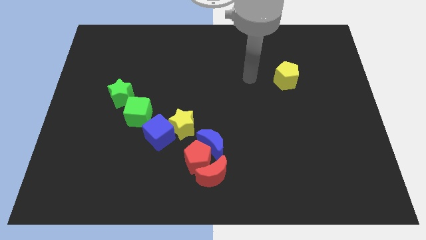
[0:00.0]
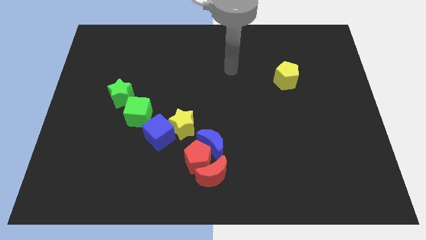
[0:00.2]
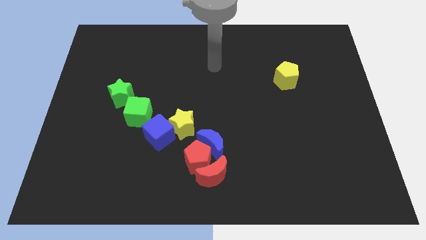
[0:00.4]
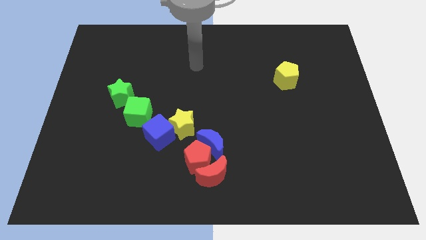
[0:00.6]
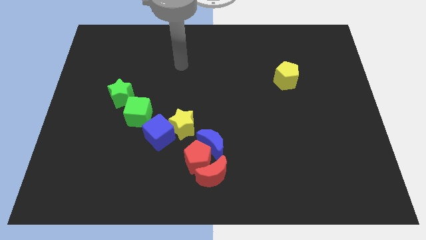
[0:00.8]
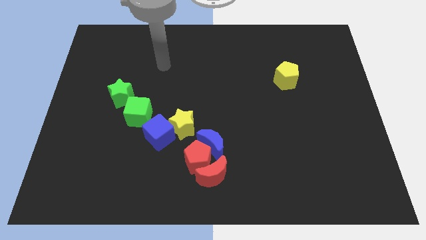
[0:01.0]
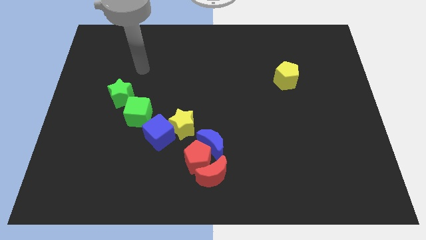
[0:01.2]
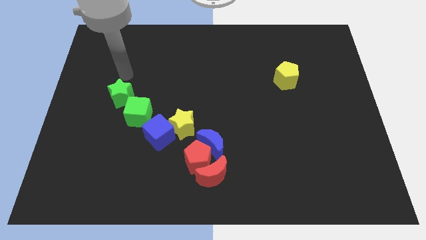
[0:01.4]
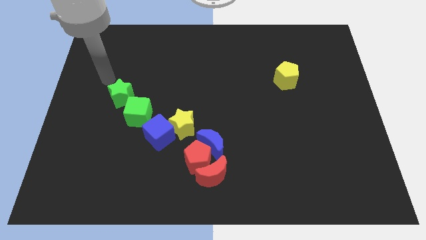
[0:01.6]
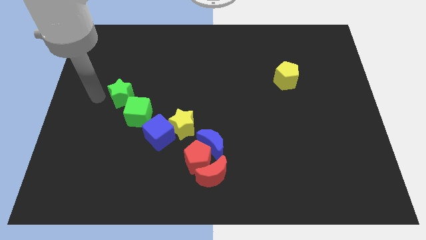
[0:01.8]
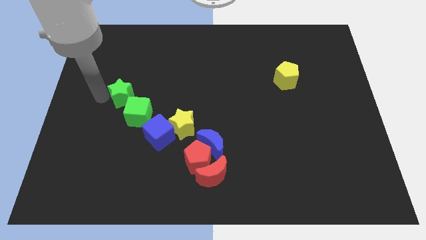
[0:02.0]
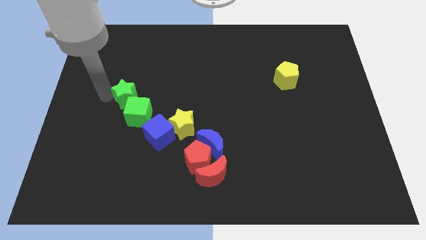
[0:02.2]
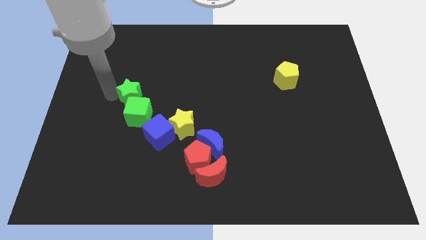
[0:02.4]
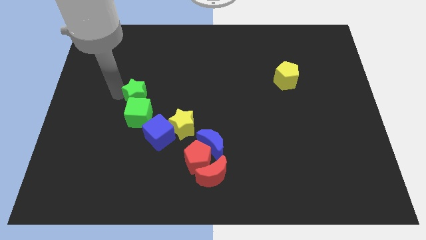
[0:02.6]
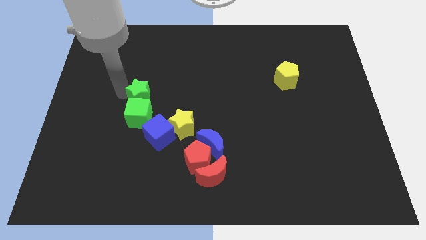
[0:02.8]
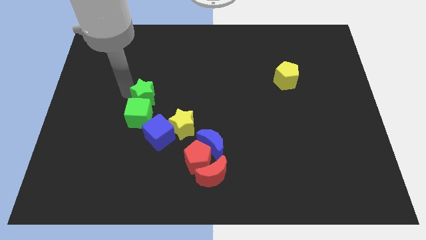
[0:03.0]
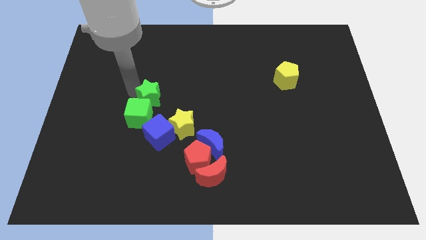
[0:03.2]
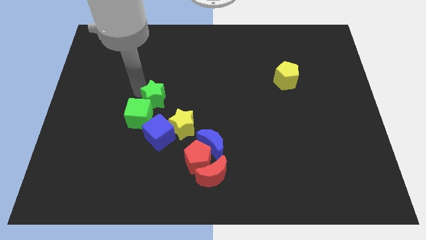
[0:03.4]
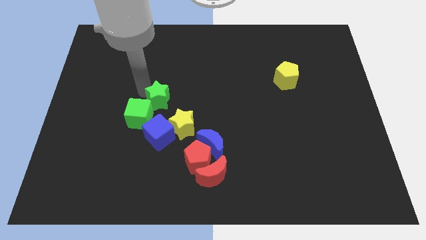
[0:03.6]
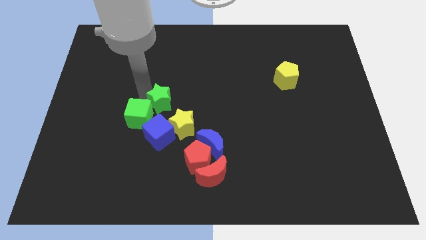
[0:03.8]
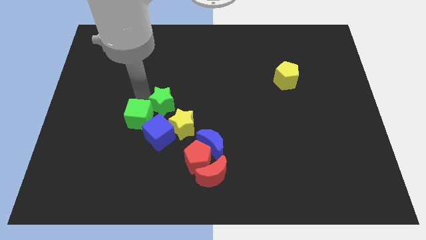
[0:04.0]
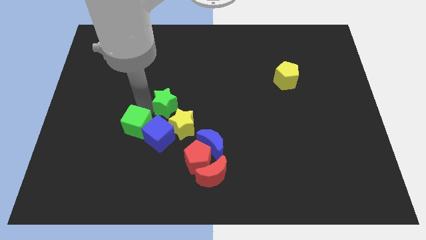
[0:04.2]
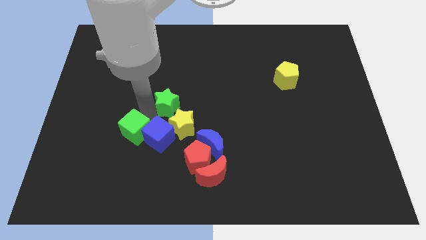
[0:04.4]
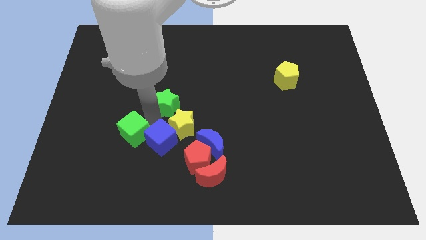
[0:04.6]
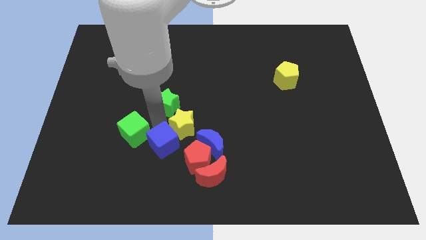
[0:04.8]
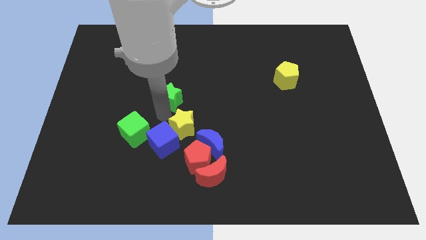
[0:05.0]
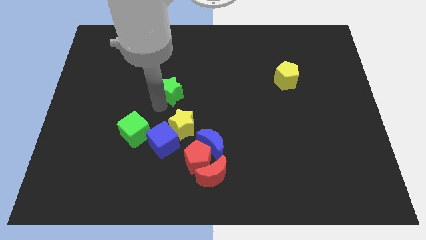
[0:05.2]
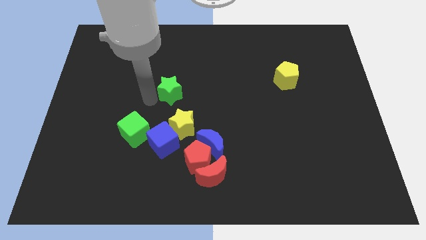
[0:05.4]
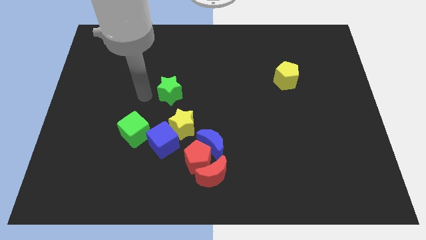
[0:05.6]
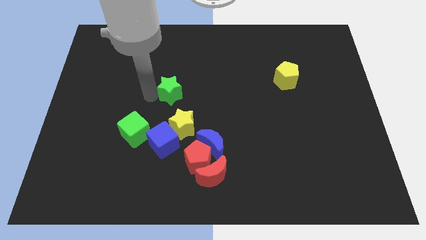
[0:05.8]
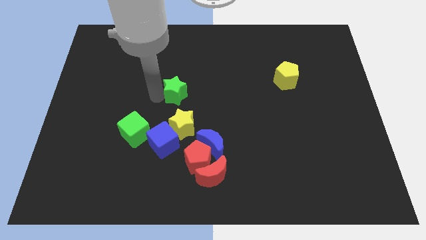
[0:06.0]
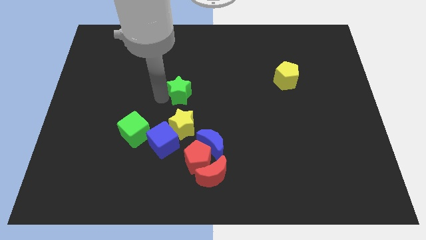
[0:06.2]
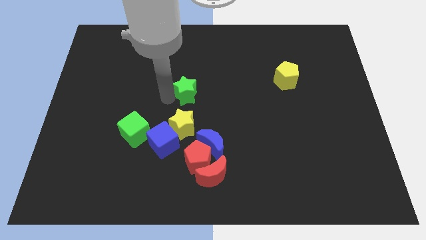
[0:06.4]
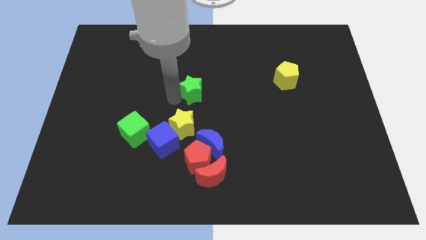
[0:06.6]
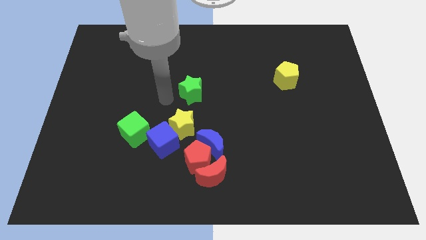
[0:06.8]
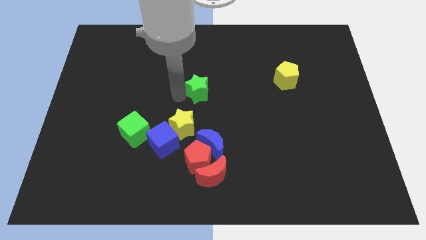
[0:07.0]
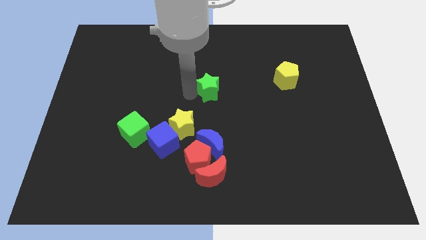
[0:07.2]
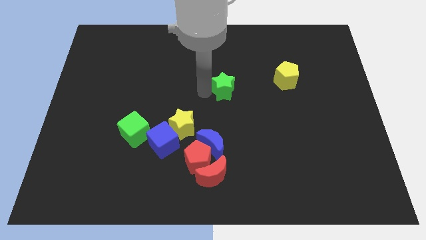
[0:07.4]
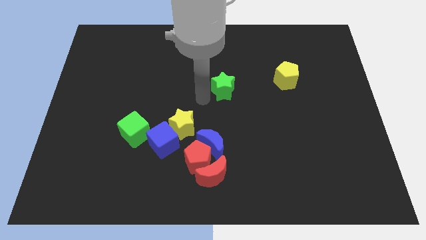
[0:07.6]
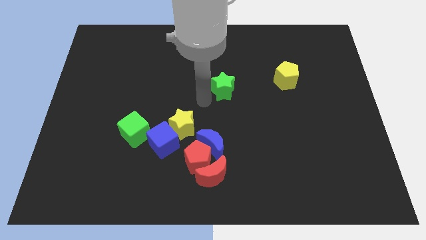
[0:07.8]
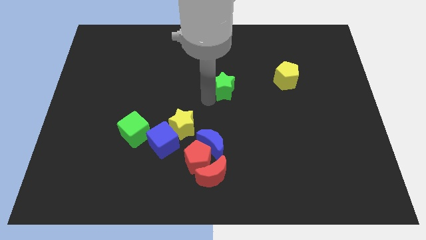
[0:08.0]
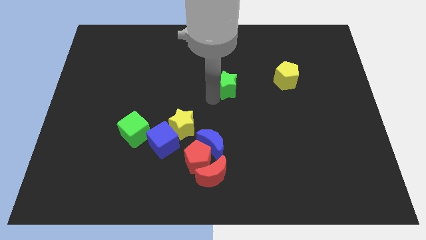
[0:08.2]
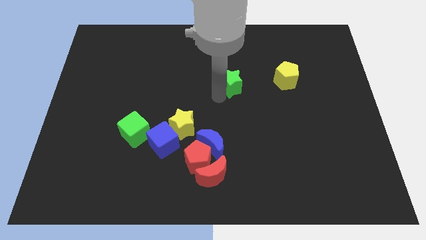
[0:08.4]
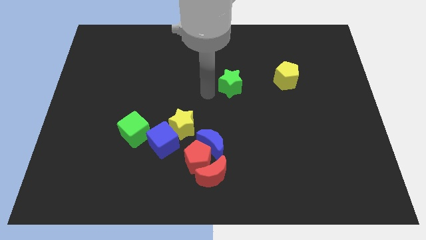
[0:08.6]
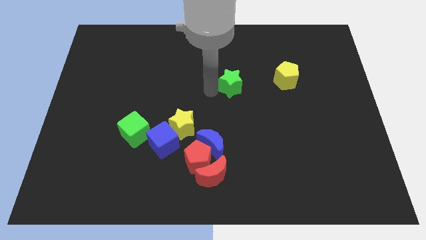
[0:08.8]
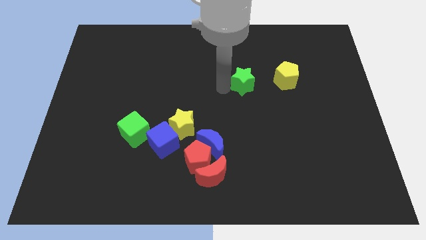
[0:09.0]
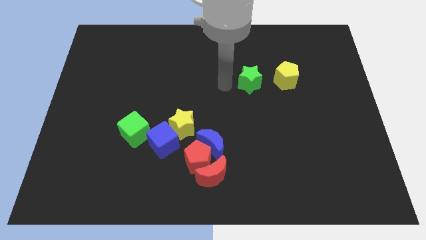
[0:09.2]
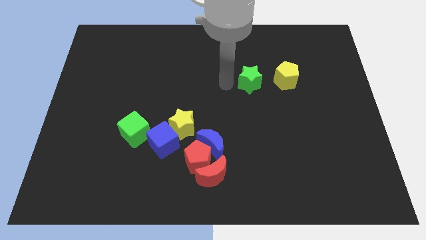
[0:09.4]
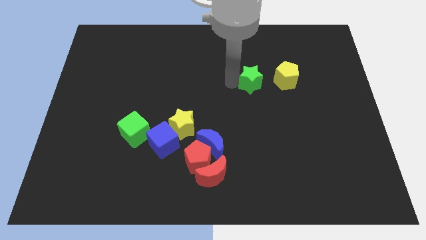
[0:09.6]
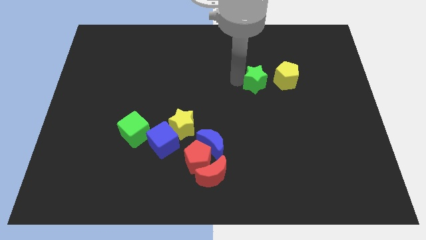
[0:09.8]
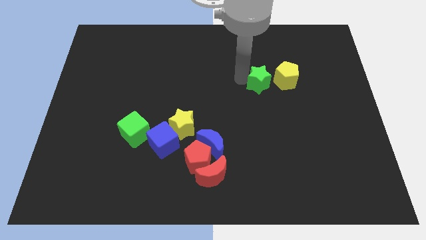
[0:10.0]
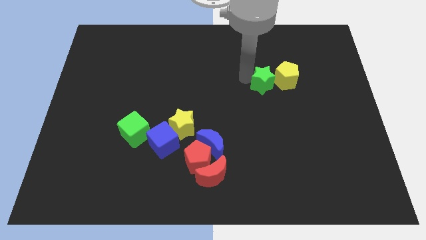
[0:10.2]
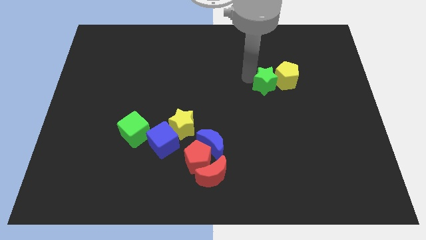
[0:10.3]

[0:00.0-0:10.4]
push the green star close to the yellow pentagon

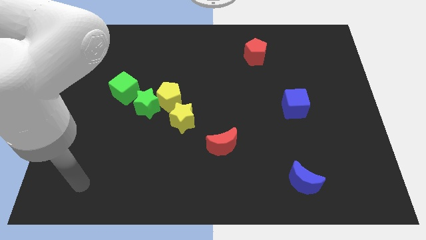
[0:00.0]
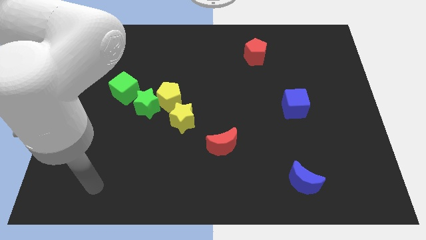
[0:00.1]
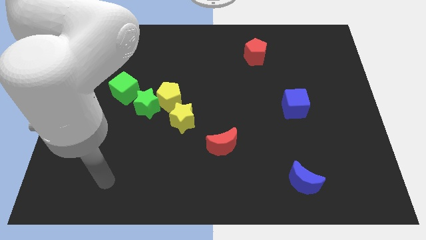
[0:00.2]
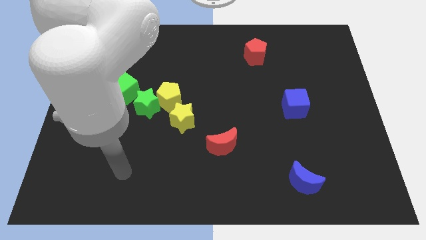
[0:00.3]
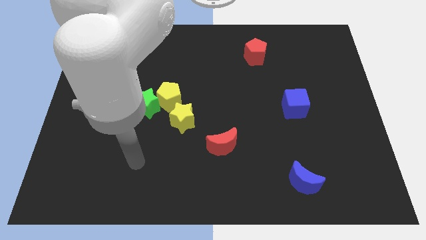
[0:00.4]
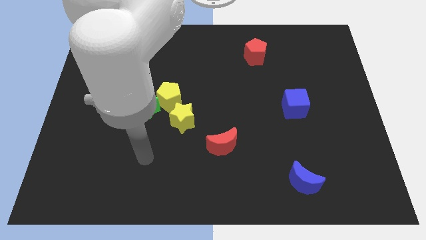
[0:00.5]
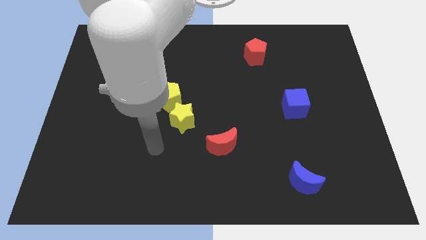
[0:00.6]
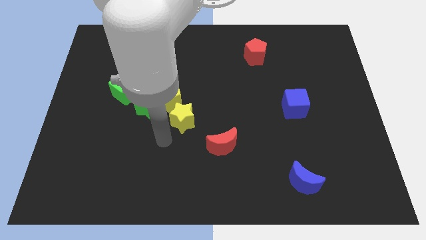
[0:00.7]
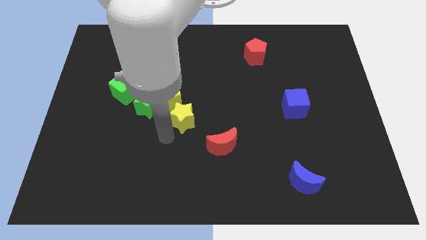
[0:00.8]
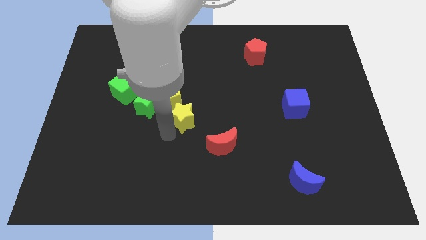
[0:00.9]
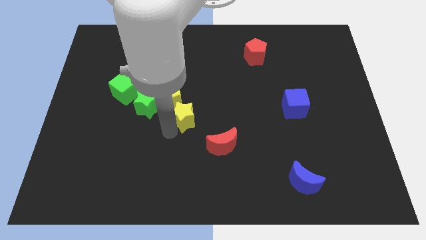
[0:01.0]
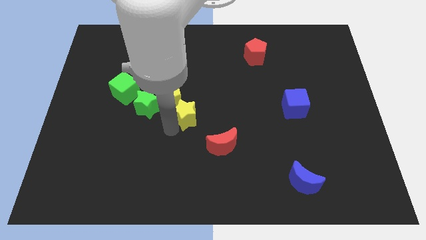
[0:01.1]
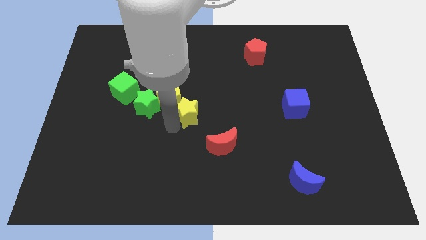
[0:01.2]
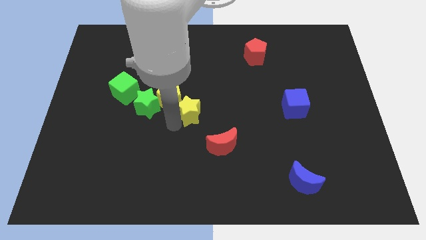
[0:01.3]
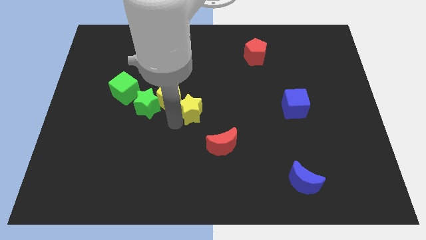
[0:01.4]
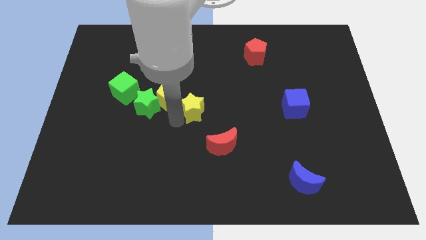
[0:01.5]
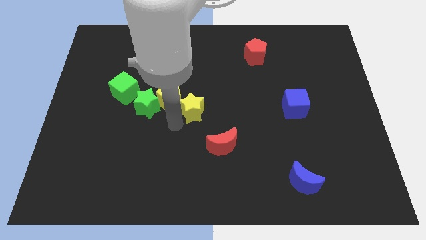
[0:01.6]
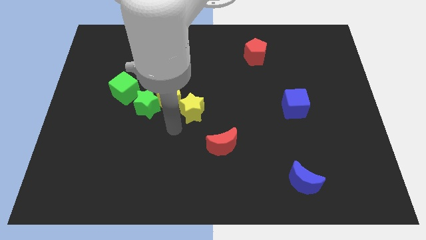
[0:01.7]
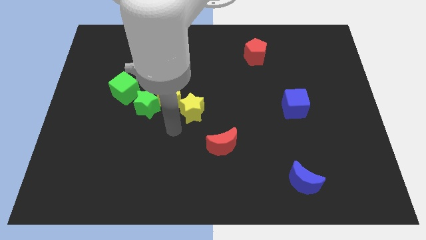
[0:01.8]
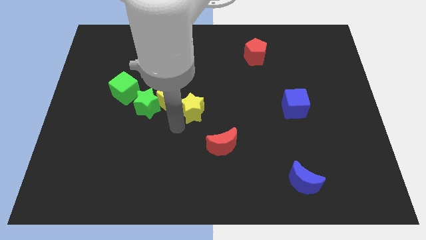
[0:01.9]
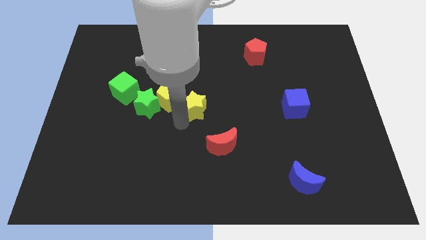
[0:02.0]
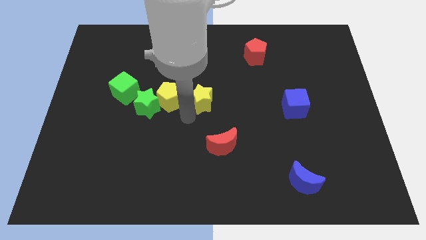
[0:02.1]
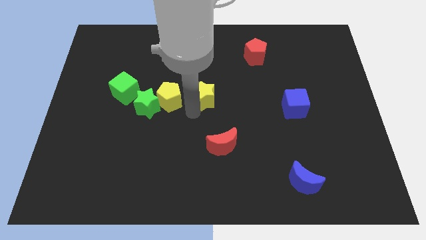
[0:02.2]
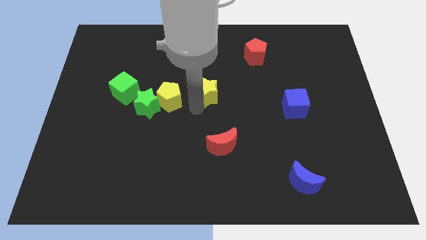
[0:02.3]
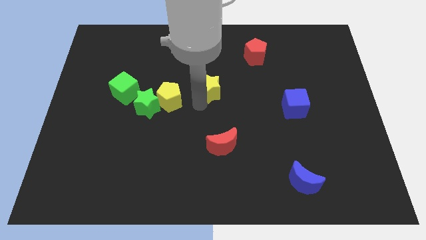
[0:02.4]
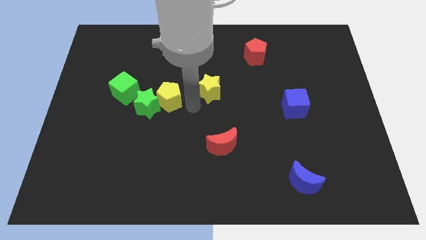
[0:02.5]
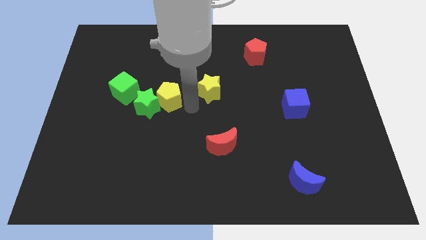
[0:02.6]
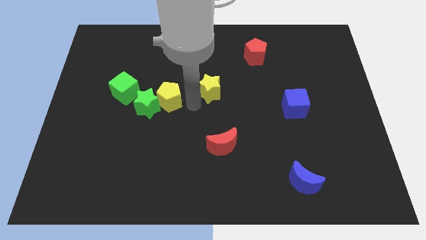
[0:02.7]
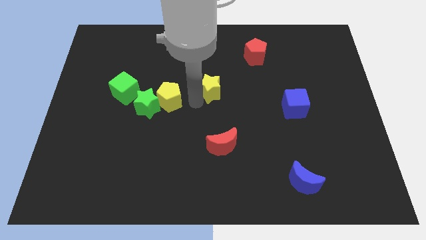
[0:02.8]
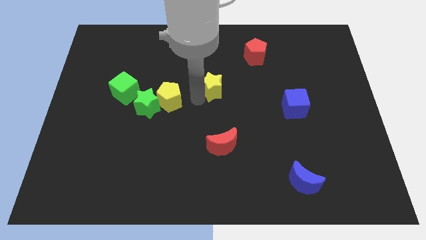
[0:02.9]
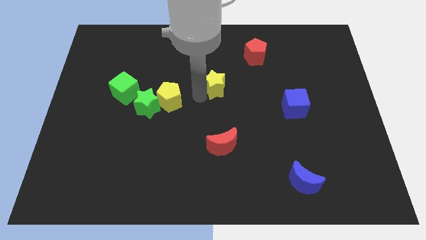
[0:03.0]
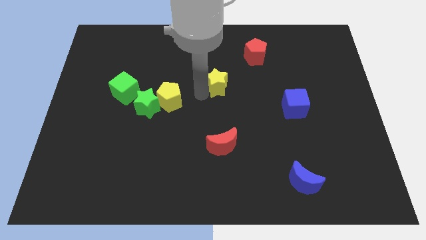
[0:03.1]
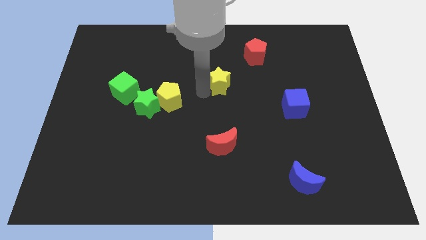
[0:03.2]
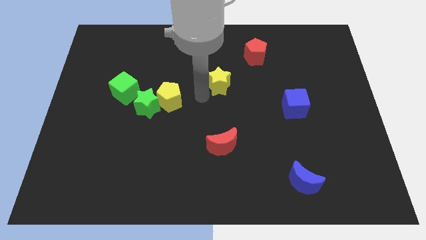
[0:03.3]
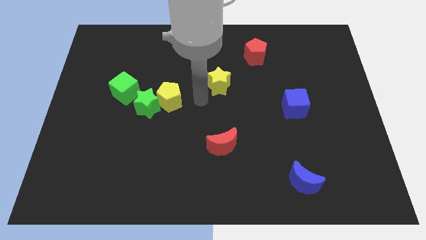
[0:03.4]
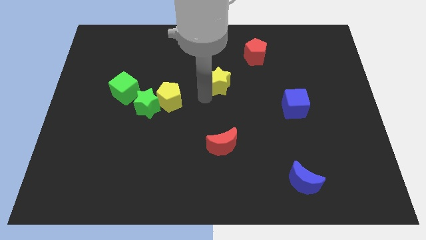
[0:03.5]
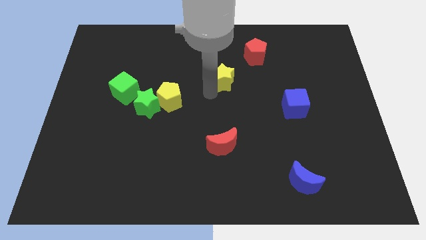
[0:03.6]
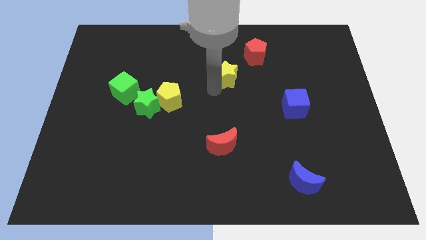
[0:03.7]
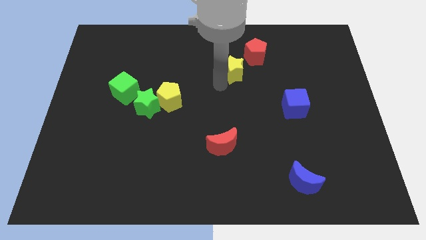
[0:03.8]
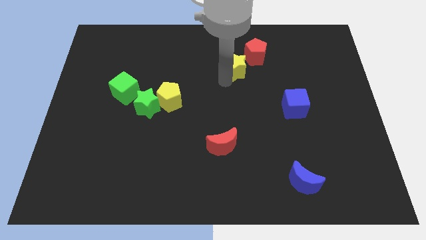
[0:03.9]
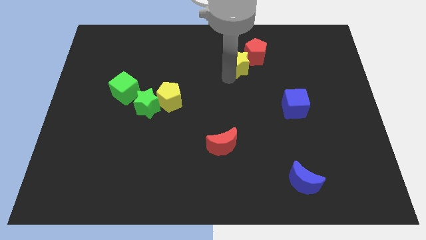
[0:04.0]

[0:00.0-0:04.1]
push the yellow star close to the red pentagon
